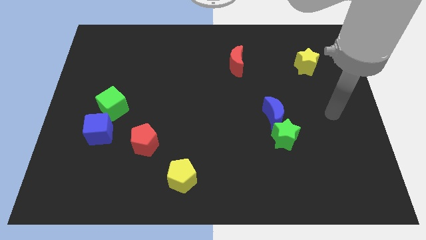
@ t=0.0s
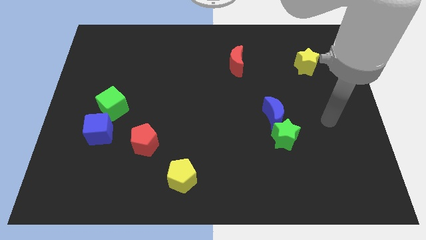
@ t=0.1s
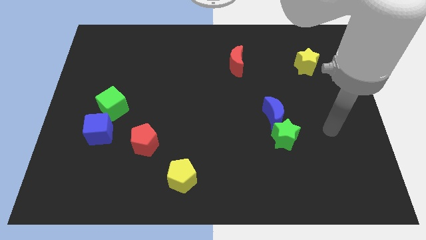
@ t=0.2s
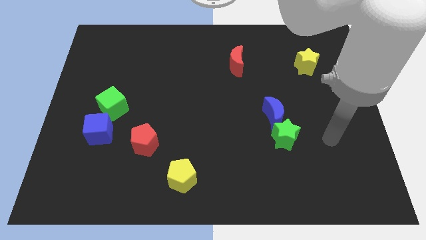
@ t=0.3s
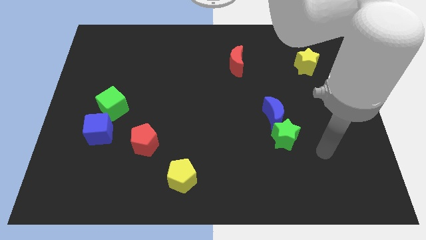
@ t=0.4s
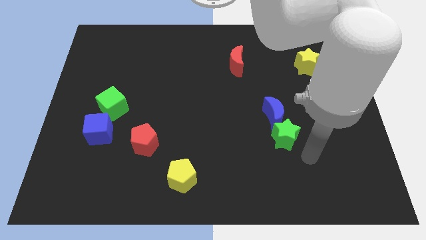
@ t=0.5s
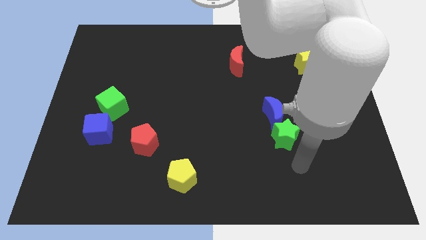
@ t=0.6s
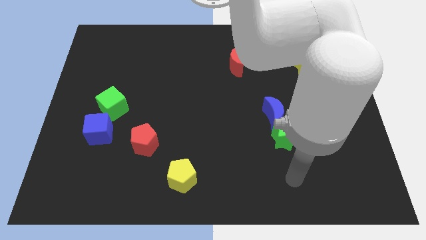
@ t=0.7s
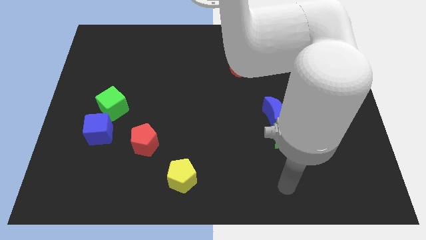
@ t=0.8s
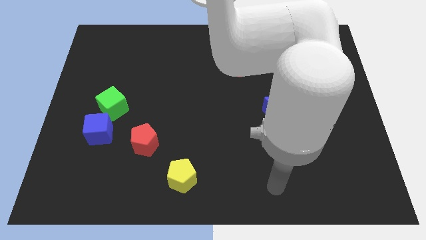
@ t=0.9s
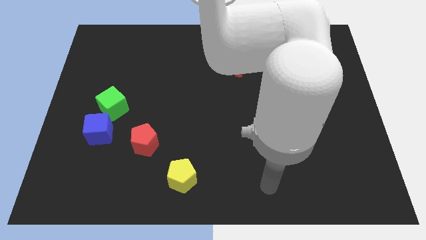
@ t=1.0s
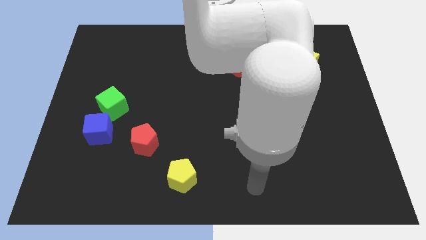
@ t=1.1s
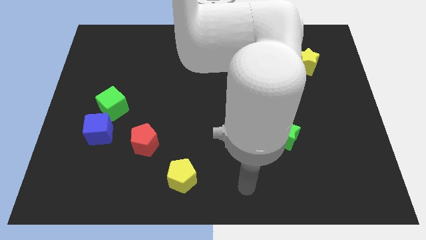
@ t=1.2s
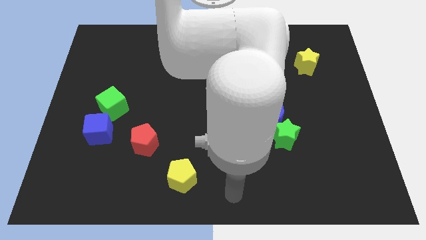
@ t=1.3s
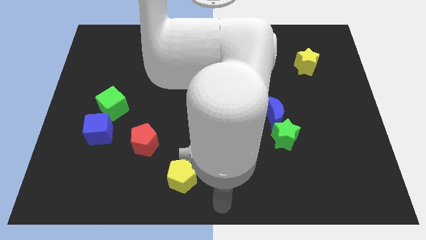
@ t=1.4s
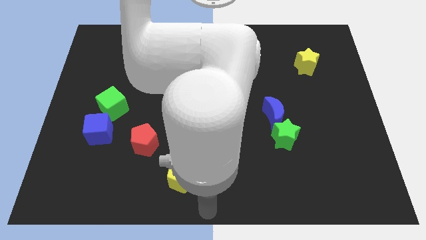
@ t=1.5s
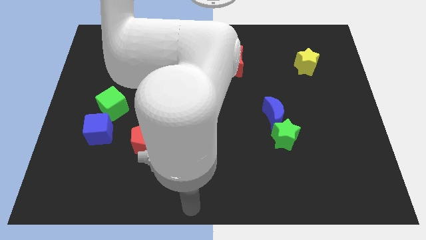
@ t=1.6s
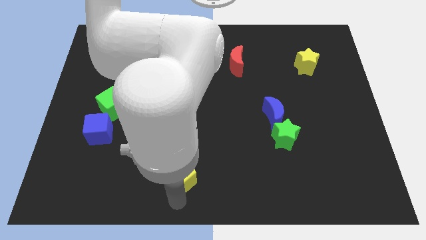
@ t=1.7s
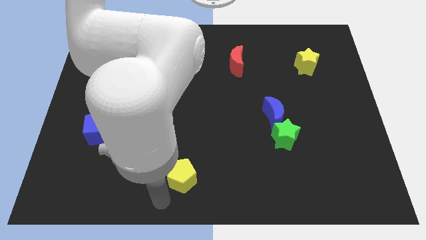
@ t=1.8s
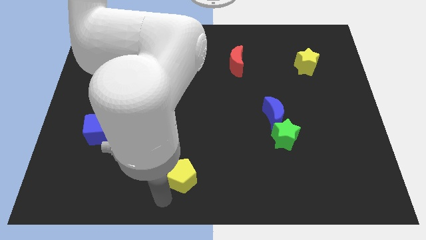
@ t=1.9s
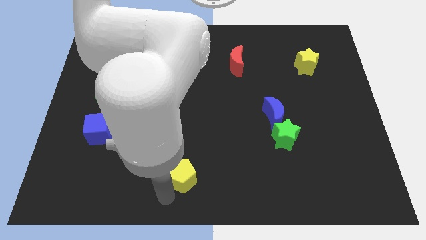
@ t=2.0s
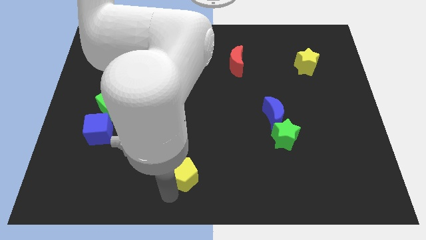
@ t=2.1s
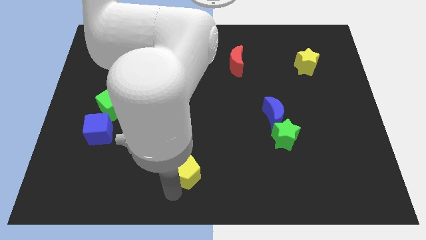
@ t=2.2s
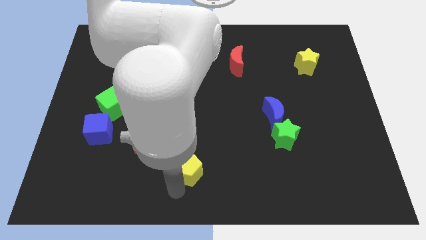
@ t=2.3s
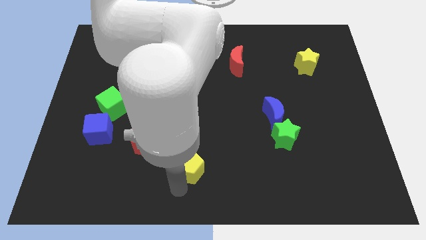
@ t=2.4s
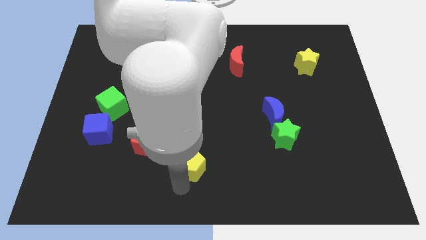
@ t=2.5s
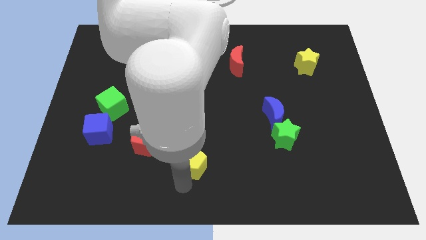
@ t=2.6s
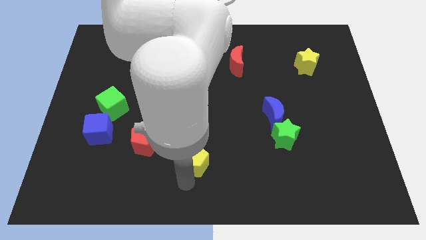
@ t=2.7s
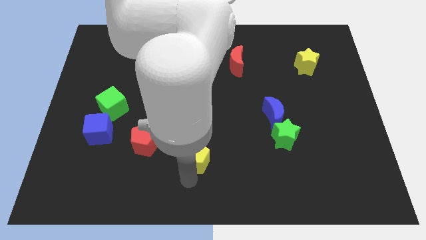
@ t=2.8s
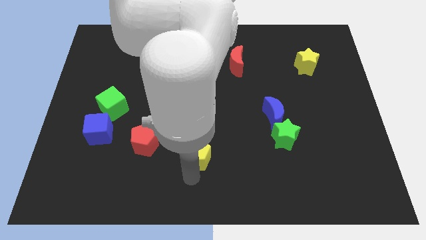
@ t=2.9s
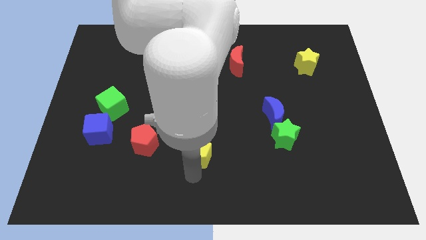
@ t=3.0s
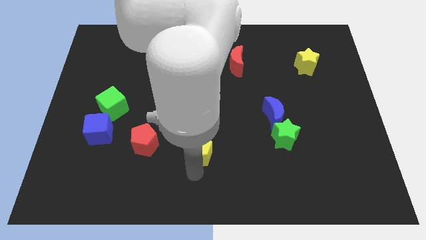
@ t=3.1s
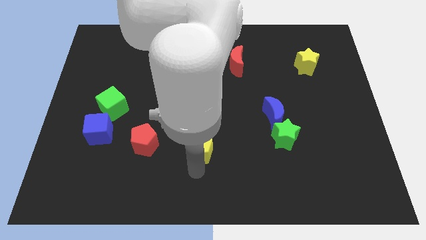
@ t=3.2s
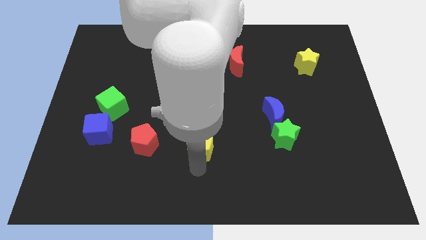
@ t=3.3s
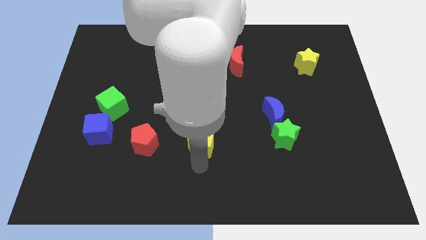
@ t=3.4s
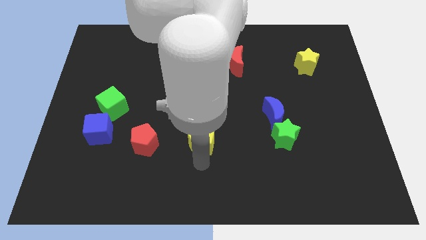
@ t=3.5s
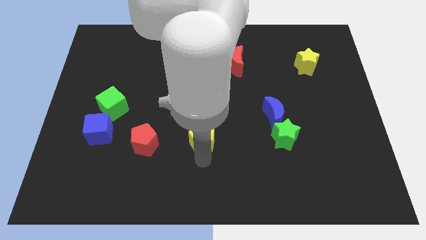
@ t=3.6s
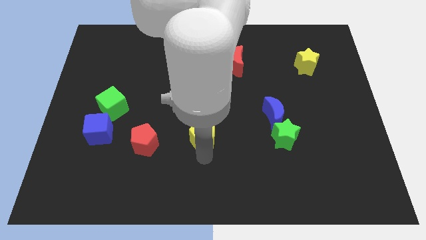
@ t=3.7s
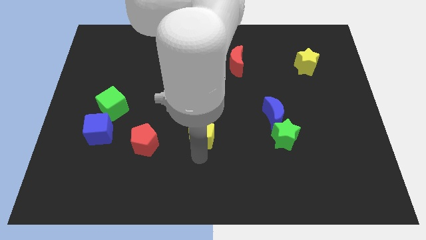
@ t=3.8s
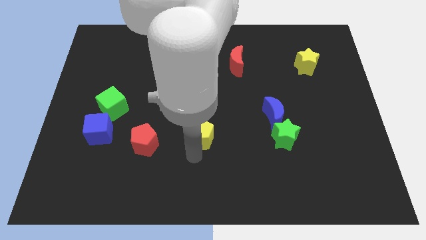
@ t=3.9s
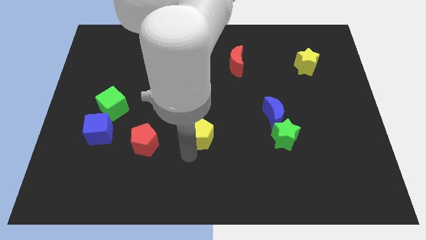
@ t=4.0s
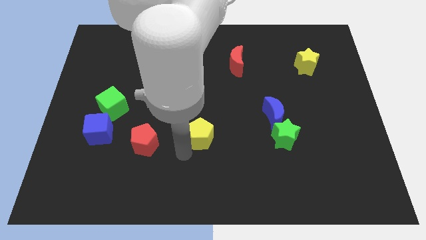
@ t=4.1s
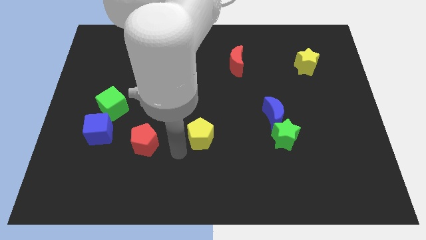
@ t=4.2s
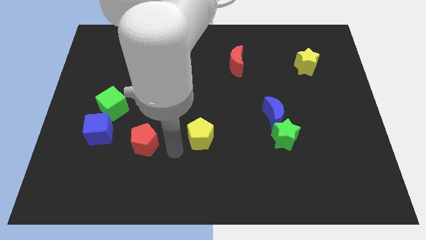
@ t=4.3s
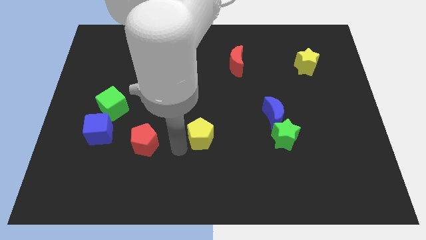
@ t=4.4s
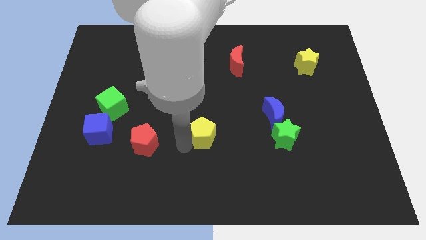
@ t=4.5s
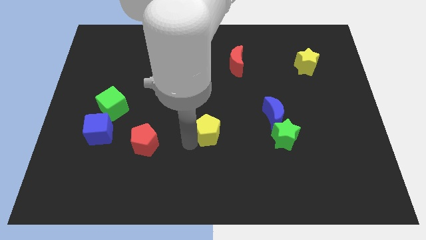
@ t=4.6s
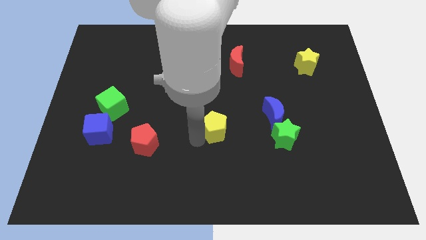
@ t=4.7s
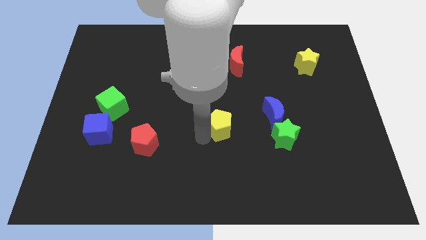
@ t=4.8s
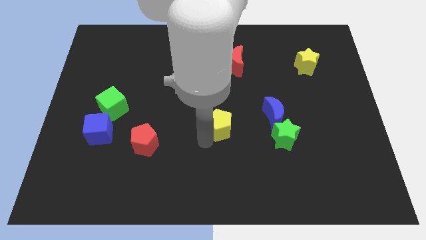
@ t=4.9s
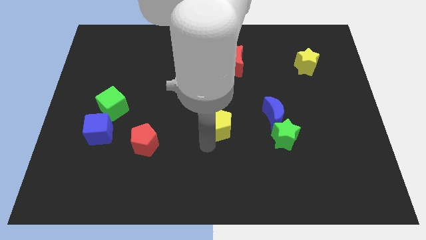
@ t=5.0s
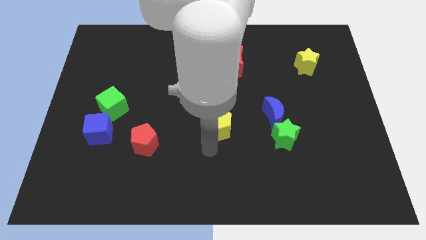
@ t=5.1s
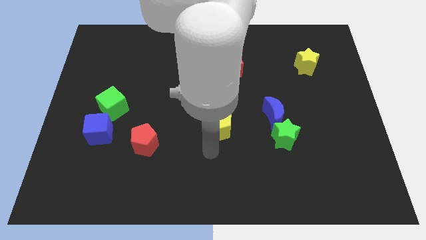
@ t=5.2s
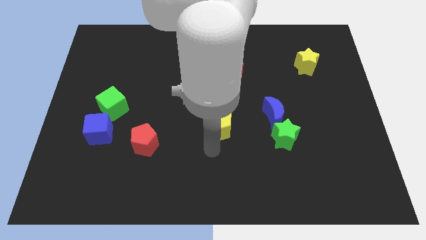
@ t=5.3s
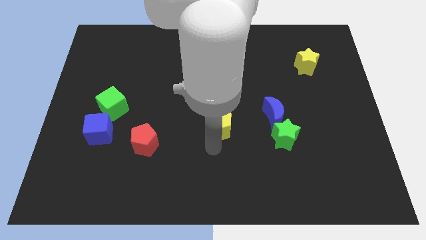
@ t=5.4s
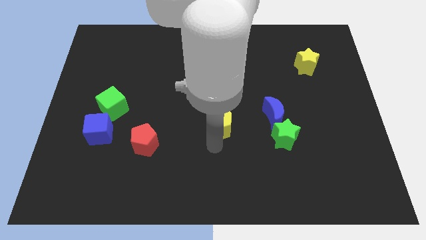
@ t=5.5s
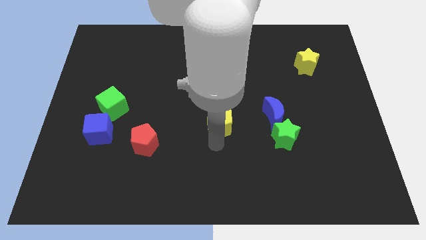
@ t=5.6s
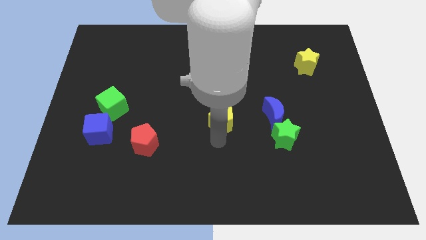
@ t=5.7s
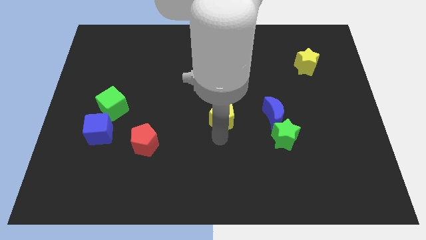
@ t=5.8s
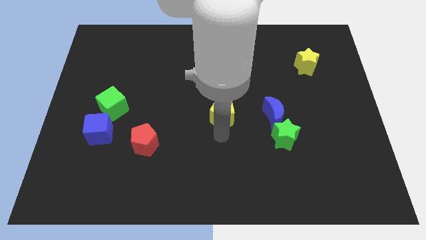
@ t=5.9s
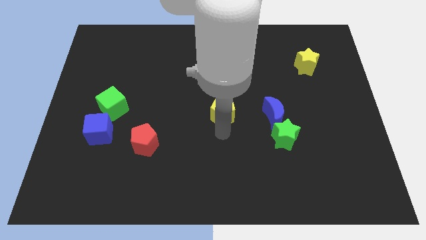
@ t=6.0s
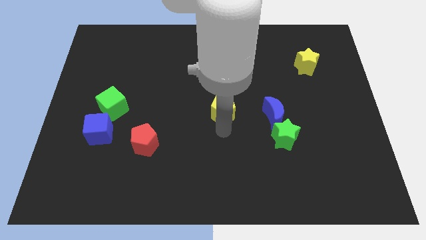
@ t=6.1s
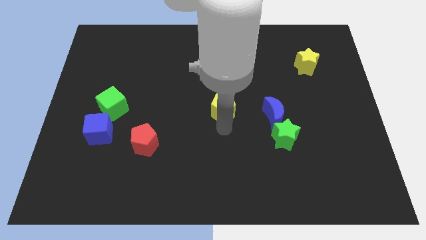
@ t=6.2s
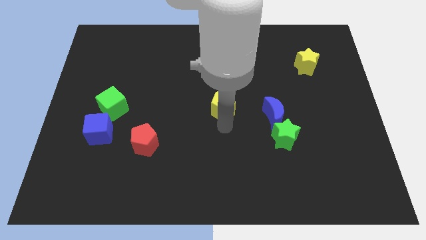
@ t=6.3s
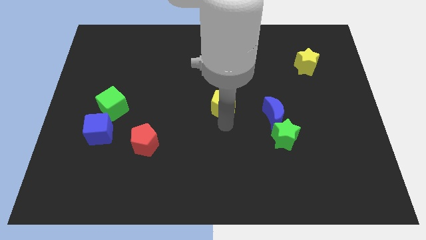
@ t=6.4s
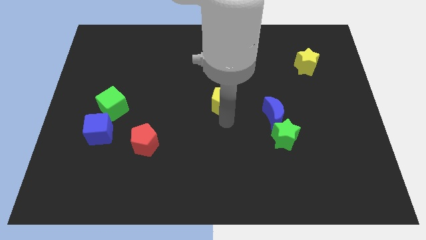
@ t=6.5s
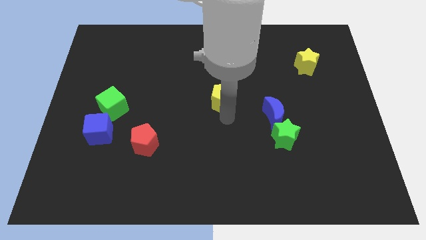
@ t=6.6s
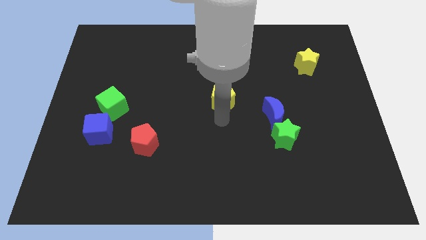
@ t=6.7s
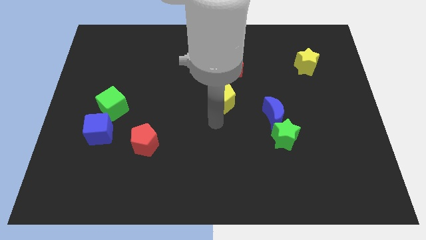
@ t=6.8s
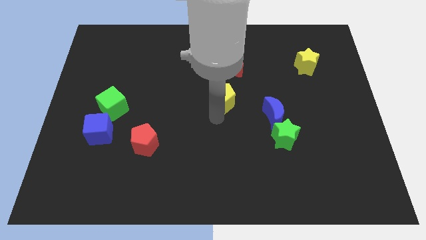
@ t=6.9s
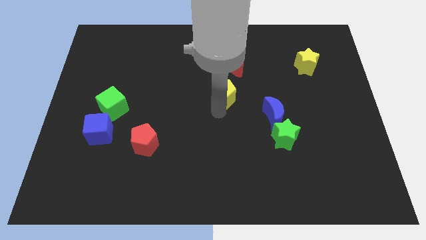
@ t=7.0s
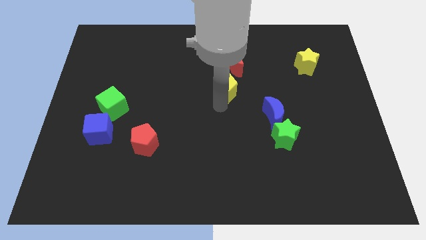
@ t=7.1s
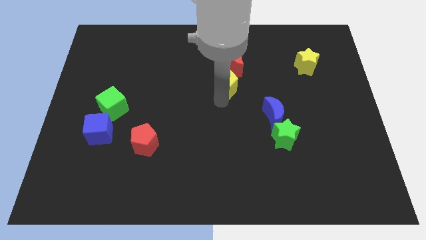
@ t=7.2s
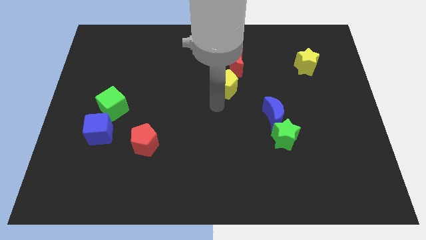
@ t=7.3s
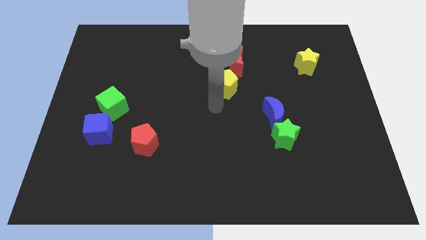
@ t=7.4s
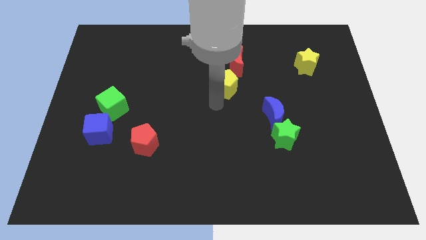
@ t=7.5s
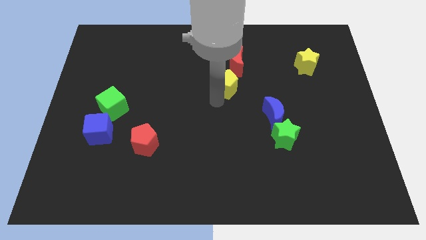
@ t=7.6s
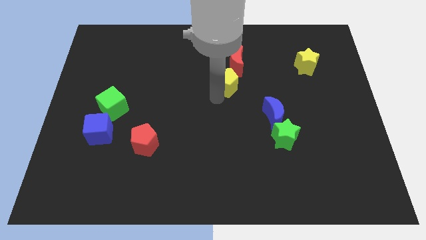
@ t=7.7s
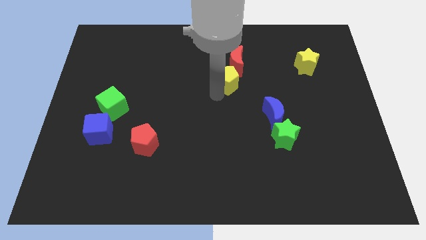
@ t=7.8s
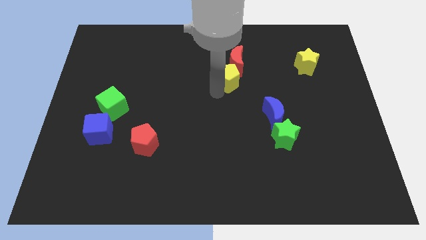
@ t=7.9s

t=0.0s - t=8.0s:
push the yellow pentagon to the red moon
